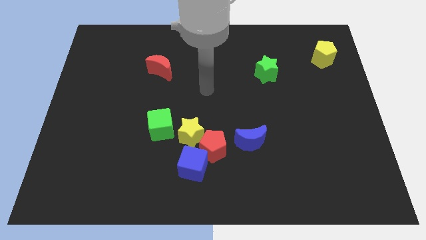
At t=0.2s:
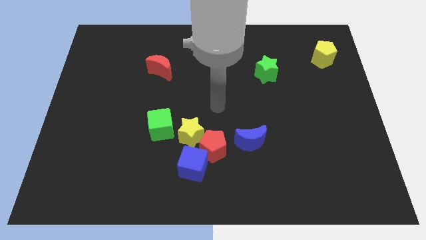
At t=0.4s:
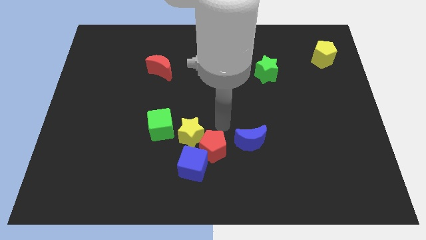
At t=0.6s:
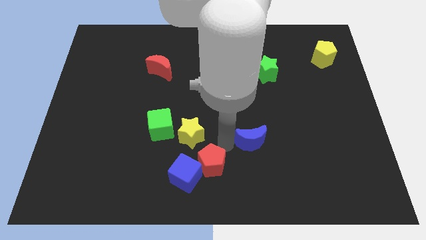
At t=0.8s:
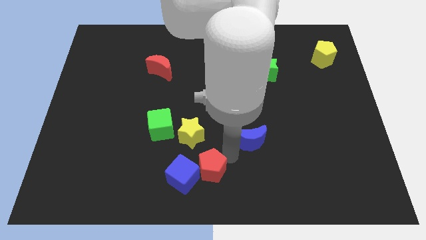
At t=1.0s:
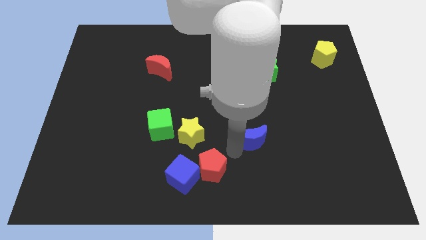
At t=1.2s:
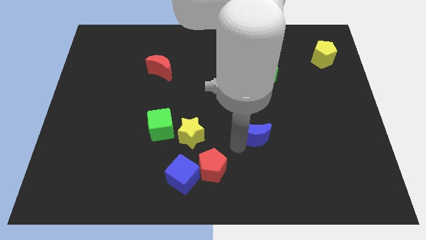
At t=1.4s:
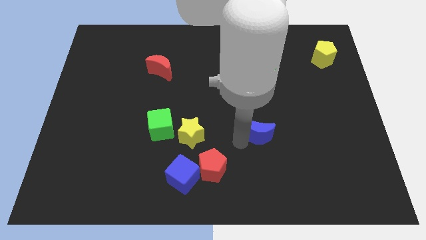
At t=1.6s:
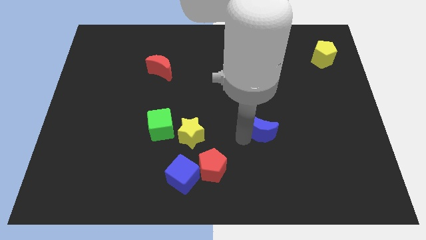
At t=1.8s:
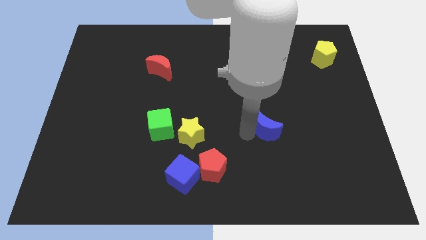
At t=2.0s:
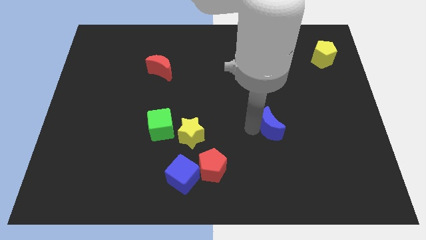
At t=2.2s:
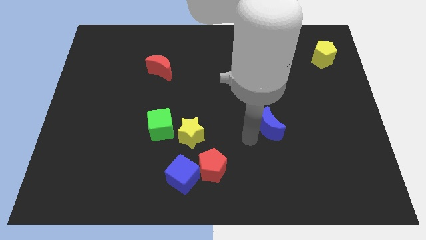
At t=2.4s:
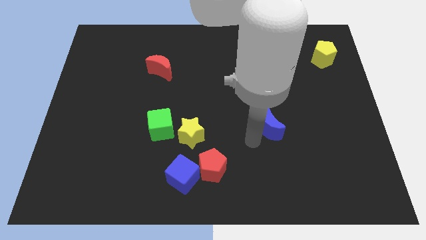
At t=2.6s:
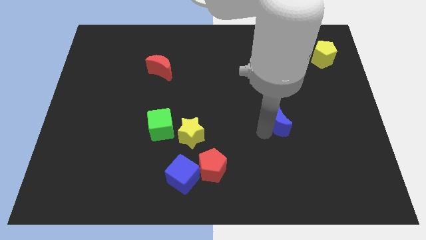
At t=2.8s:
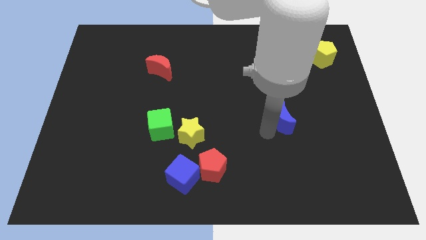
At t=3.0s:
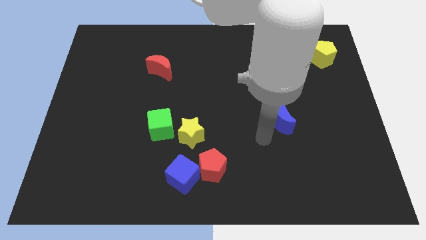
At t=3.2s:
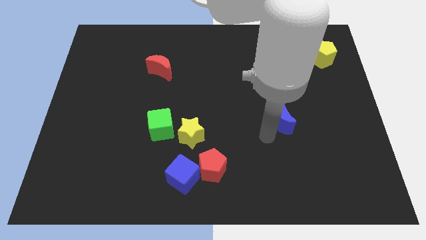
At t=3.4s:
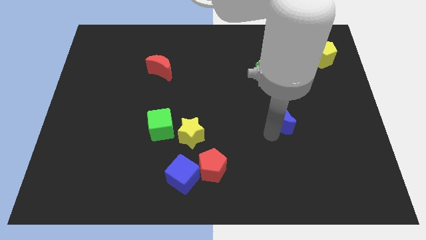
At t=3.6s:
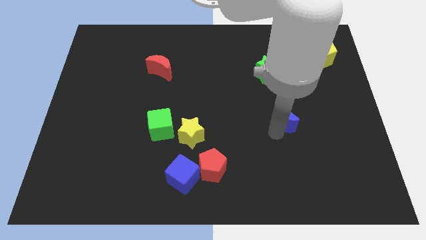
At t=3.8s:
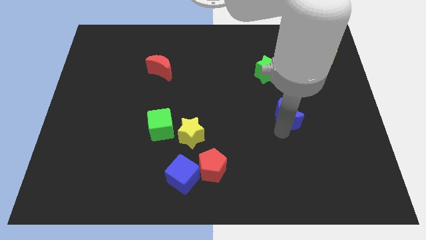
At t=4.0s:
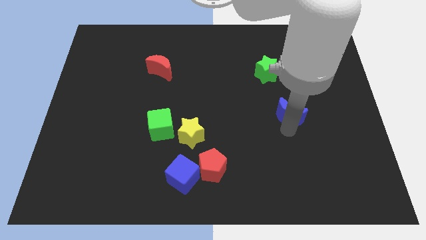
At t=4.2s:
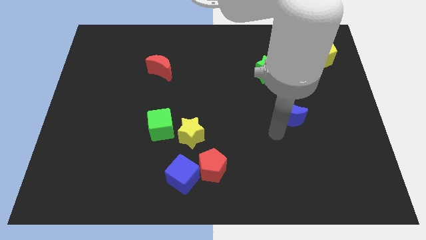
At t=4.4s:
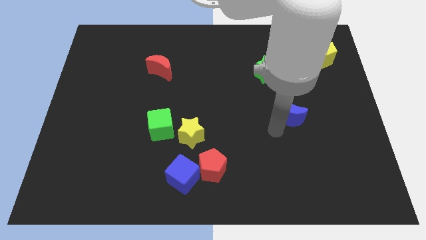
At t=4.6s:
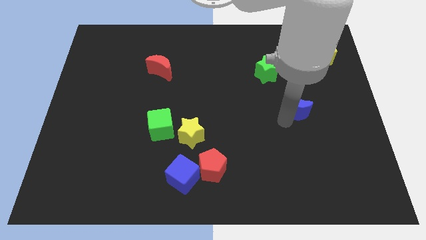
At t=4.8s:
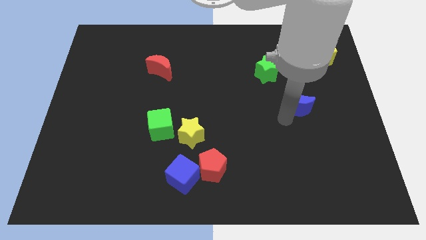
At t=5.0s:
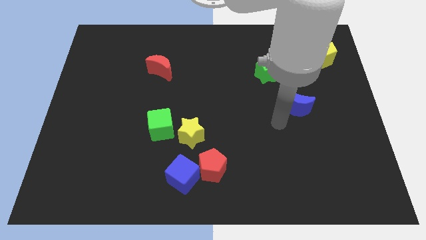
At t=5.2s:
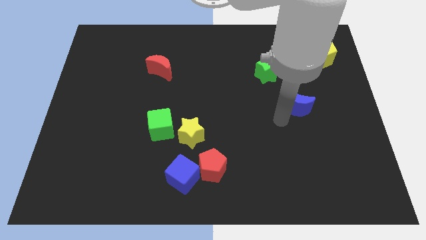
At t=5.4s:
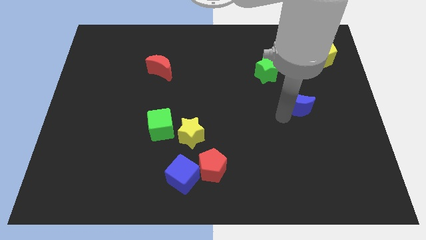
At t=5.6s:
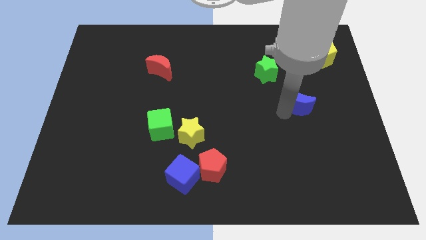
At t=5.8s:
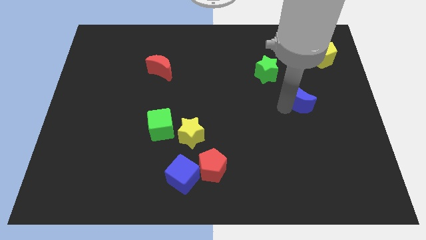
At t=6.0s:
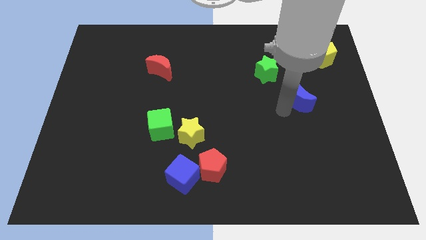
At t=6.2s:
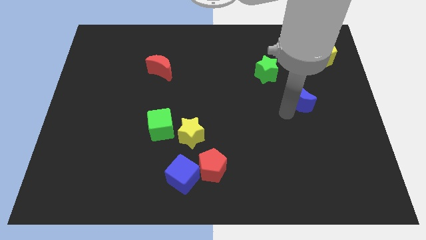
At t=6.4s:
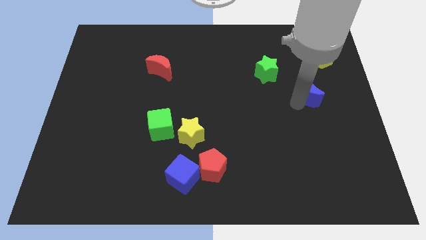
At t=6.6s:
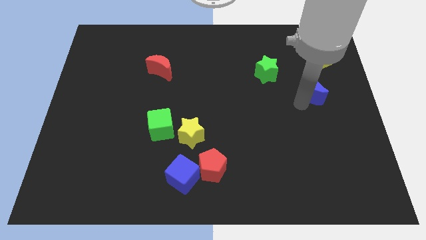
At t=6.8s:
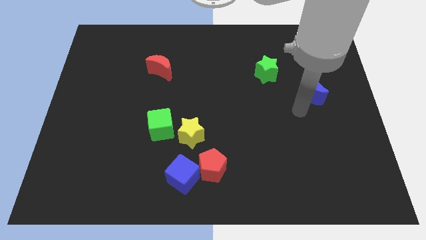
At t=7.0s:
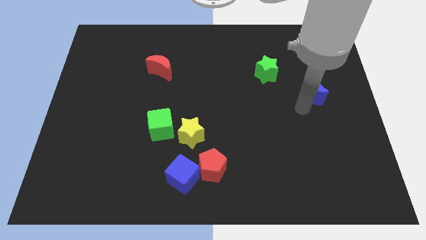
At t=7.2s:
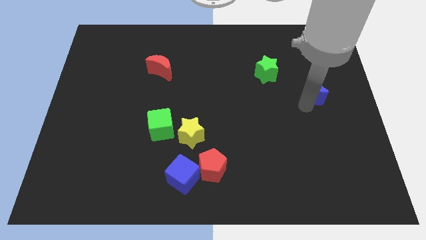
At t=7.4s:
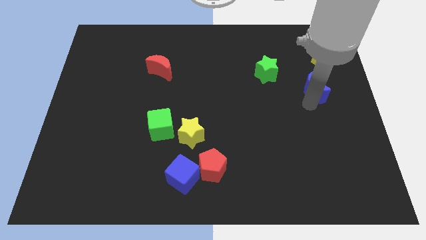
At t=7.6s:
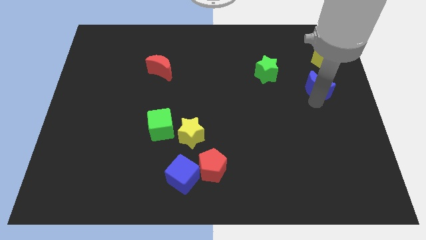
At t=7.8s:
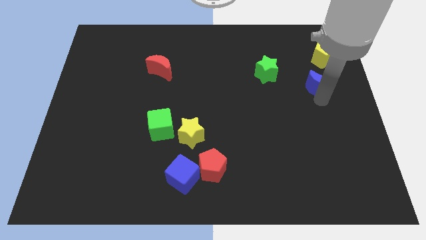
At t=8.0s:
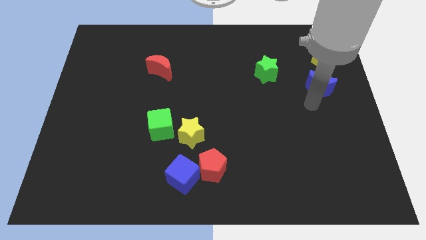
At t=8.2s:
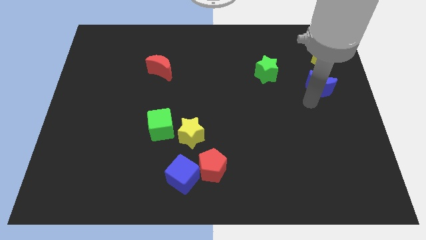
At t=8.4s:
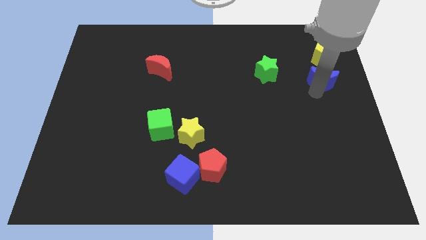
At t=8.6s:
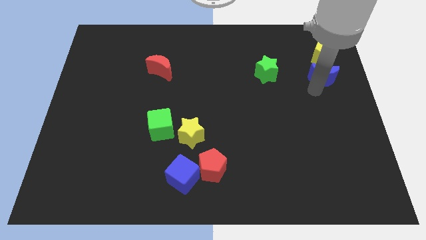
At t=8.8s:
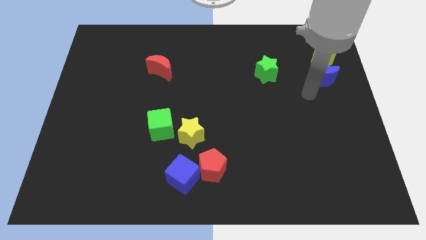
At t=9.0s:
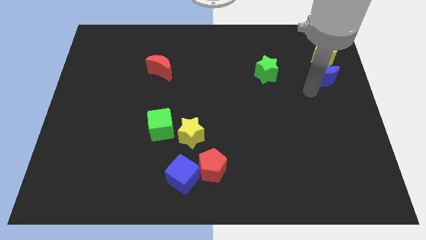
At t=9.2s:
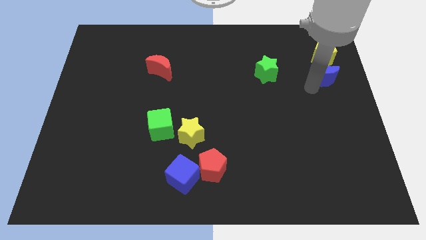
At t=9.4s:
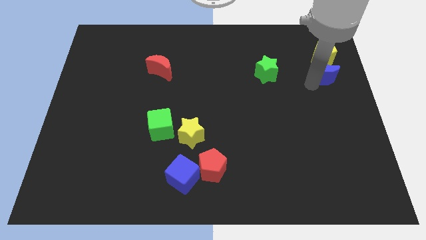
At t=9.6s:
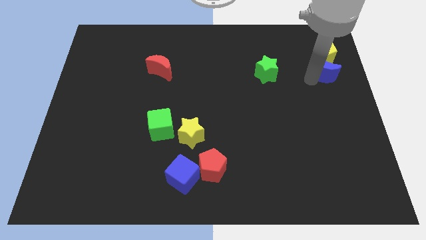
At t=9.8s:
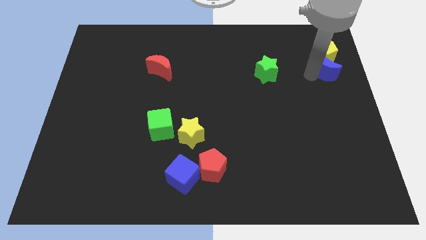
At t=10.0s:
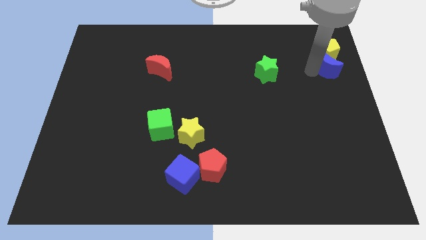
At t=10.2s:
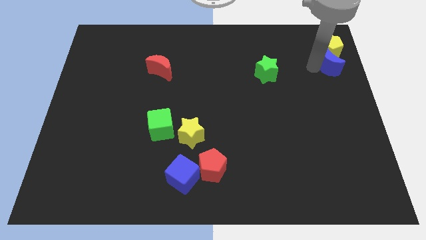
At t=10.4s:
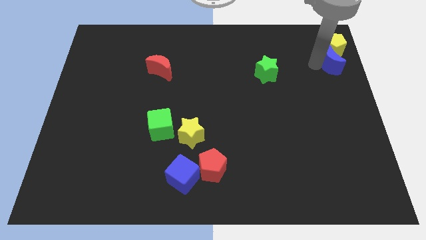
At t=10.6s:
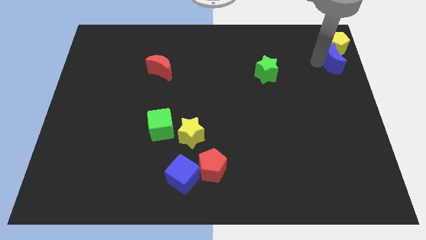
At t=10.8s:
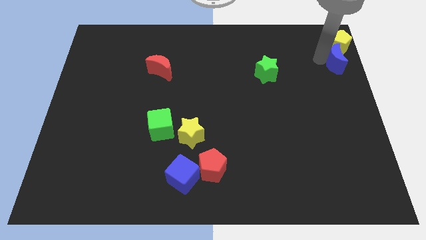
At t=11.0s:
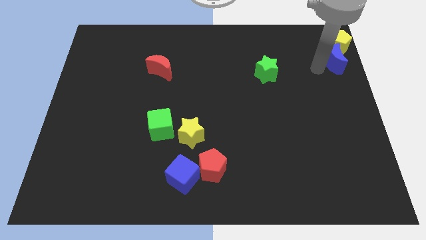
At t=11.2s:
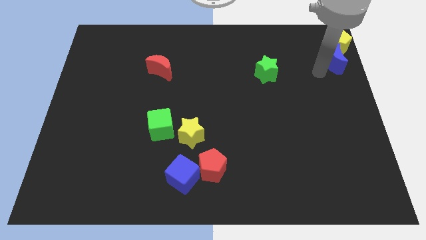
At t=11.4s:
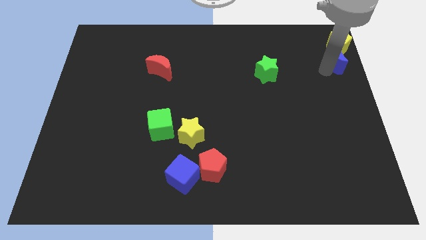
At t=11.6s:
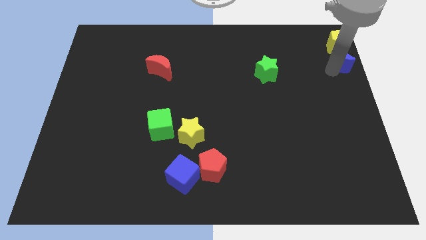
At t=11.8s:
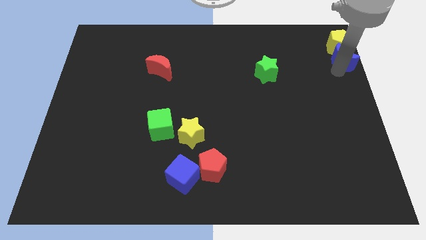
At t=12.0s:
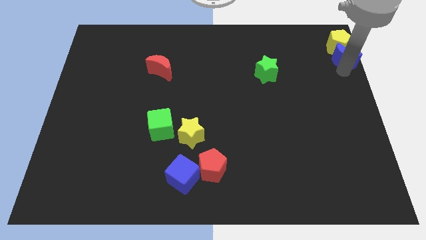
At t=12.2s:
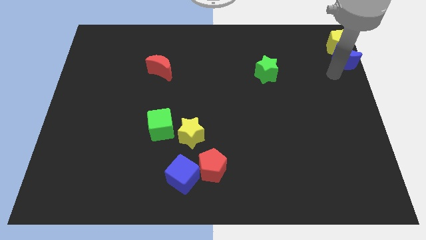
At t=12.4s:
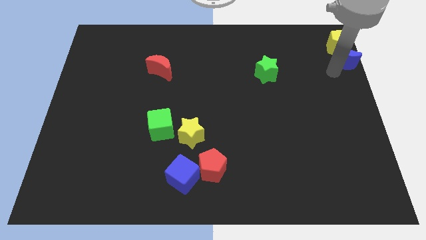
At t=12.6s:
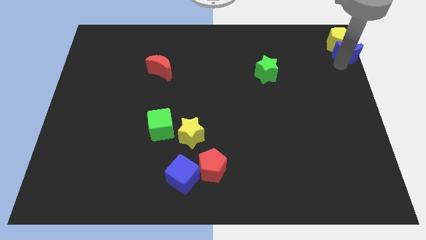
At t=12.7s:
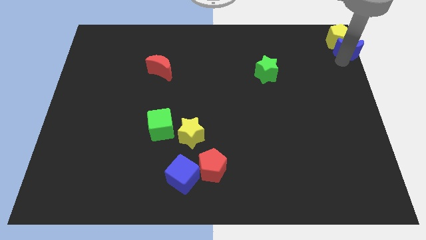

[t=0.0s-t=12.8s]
move the blue moon to the top right
